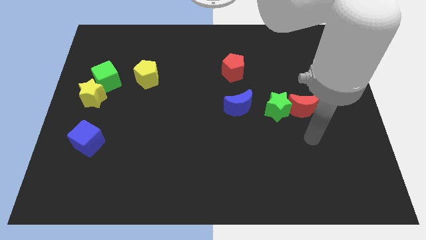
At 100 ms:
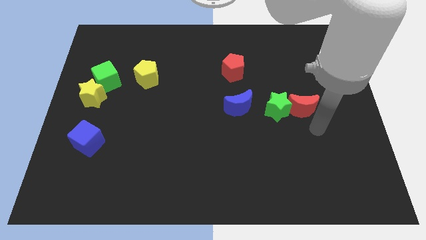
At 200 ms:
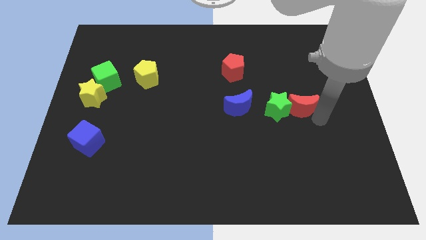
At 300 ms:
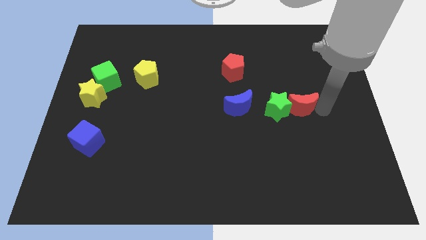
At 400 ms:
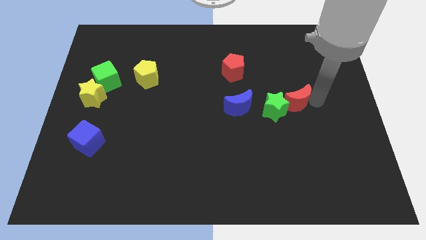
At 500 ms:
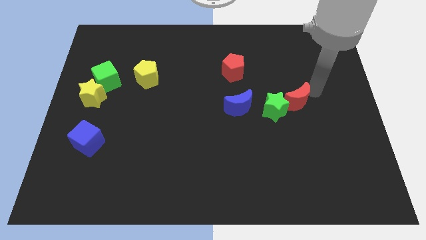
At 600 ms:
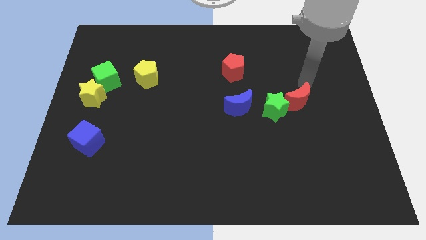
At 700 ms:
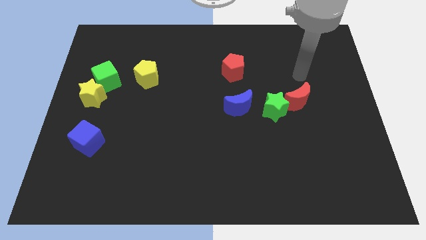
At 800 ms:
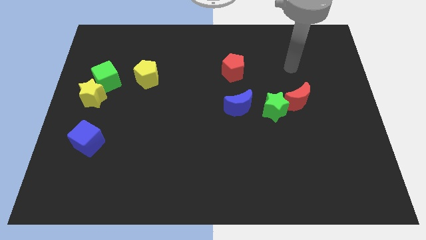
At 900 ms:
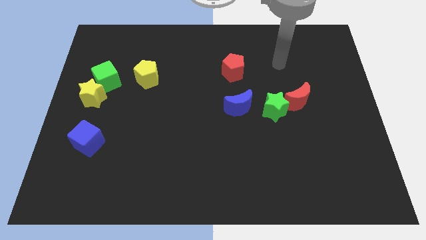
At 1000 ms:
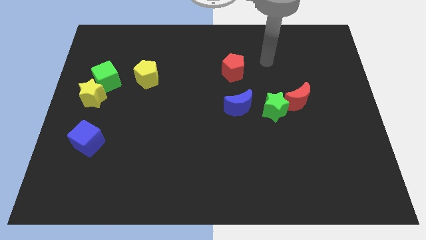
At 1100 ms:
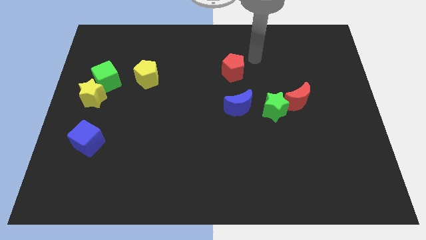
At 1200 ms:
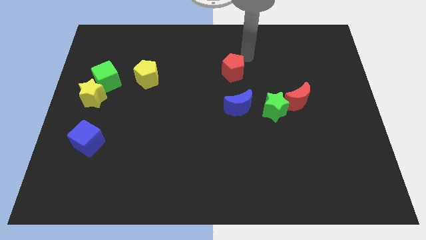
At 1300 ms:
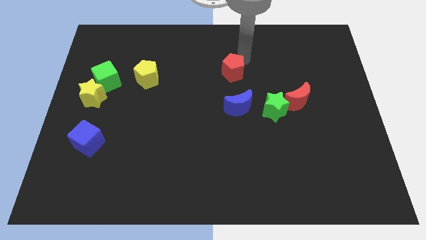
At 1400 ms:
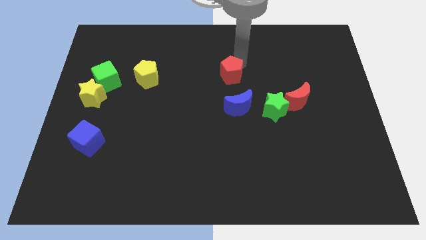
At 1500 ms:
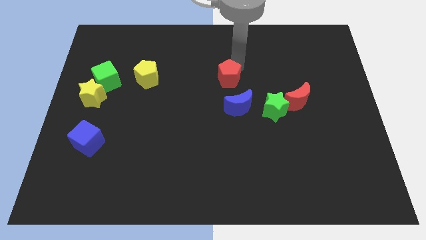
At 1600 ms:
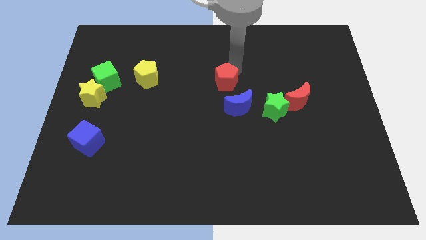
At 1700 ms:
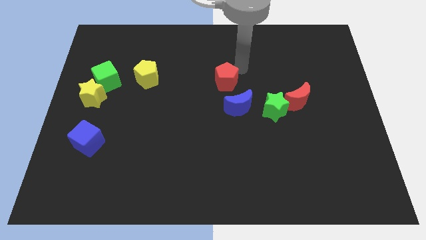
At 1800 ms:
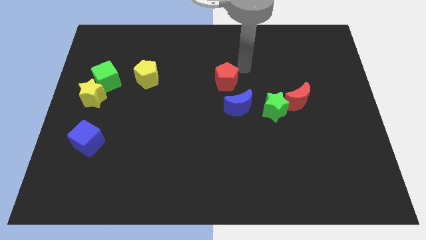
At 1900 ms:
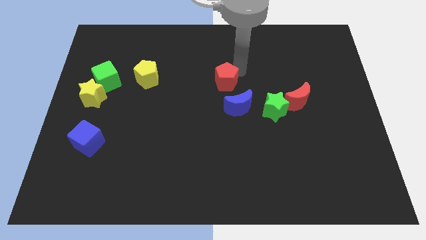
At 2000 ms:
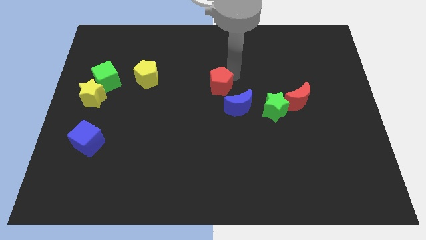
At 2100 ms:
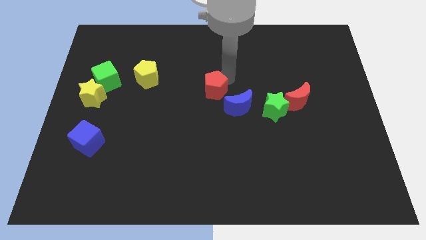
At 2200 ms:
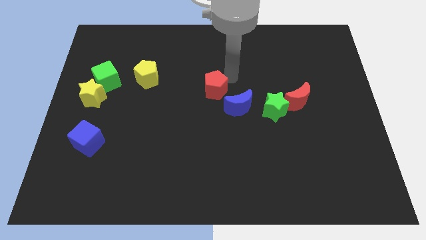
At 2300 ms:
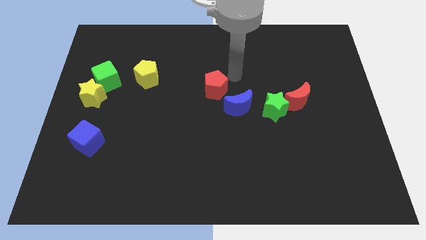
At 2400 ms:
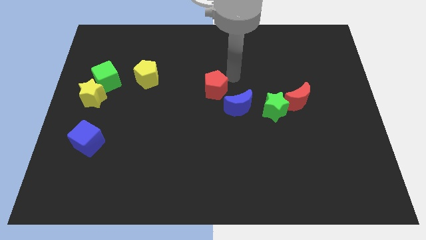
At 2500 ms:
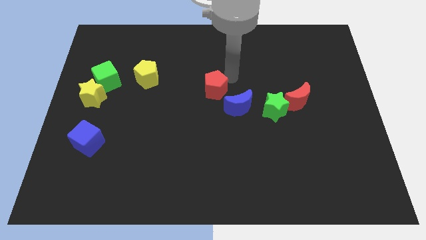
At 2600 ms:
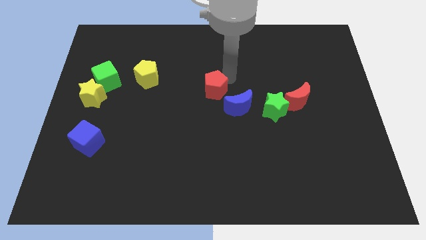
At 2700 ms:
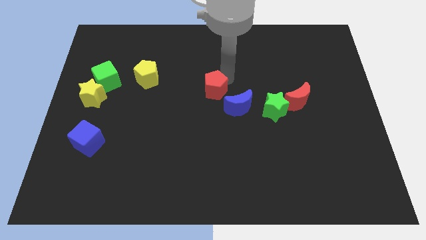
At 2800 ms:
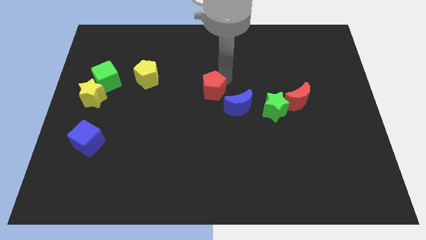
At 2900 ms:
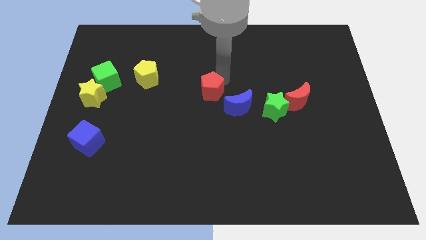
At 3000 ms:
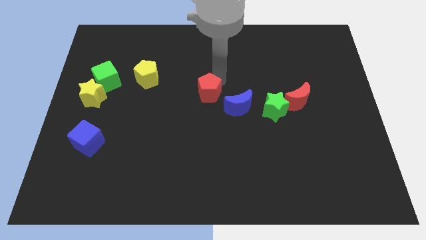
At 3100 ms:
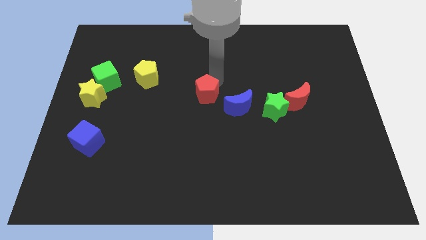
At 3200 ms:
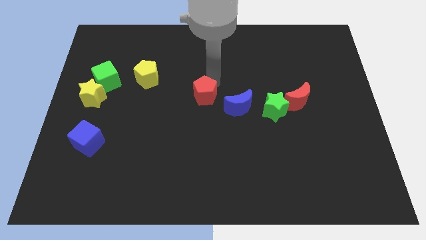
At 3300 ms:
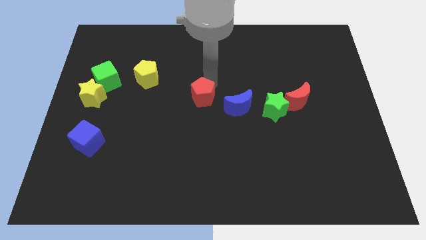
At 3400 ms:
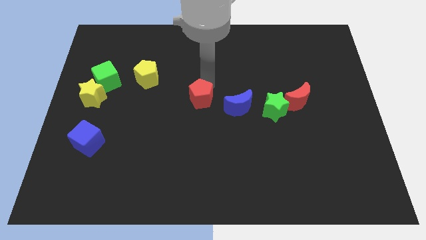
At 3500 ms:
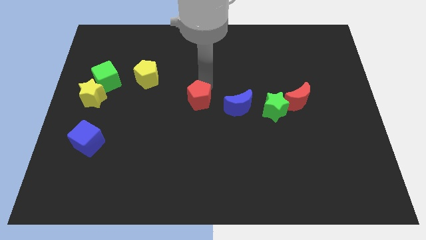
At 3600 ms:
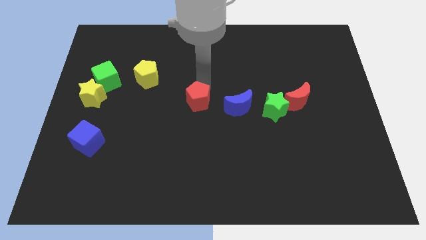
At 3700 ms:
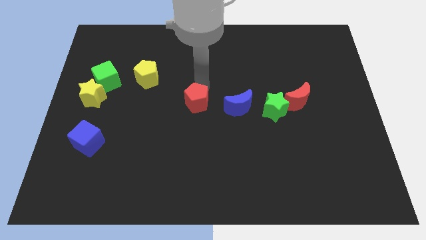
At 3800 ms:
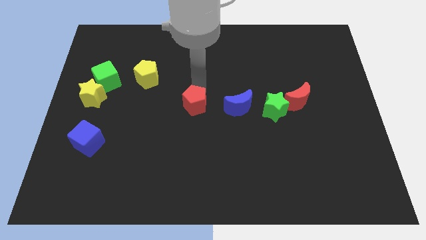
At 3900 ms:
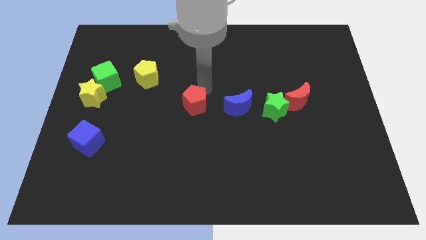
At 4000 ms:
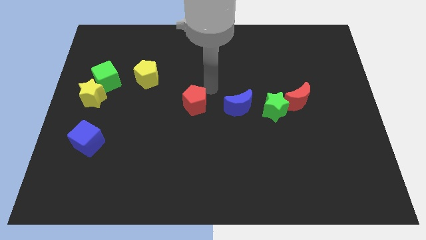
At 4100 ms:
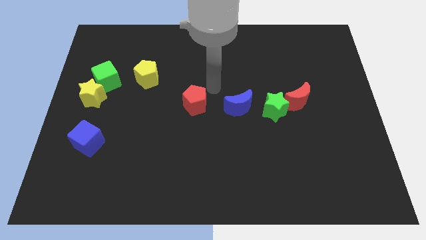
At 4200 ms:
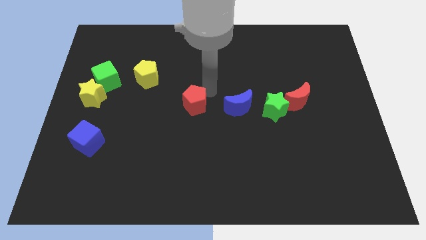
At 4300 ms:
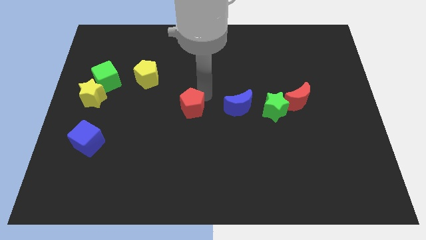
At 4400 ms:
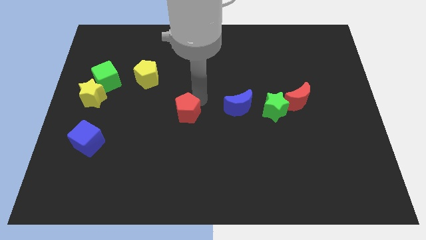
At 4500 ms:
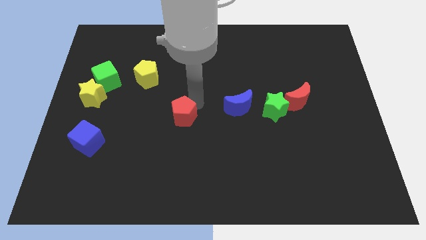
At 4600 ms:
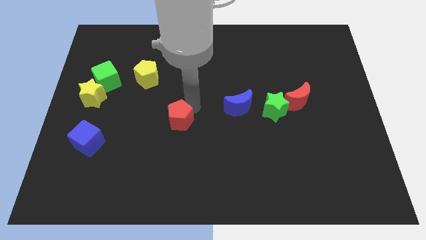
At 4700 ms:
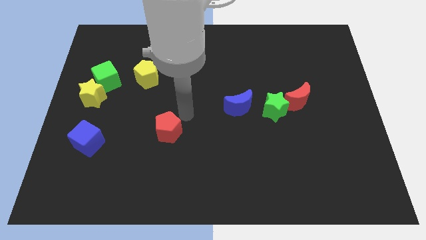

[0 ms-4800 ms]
push the red pentagon downwards and to the left

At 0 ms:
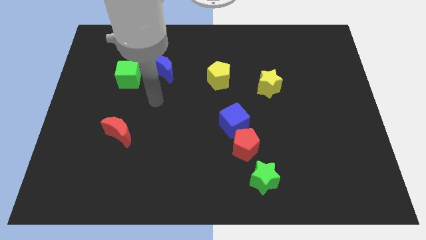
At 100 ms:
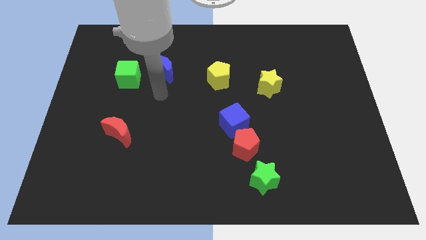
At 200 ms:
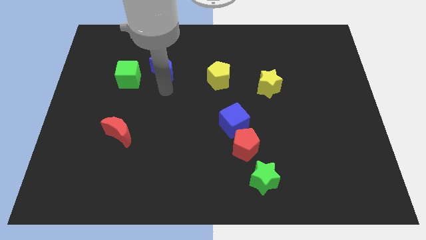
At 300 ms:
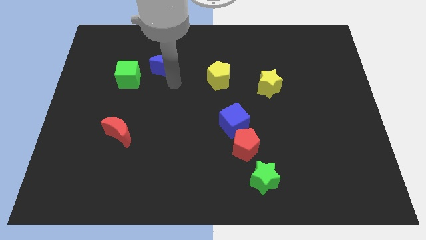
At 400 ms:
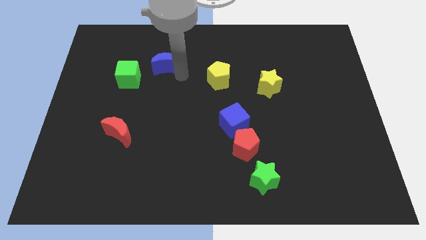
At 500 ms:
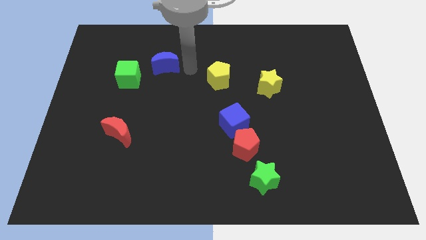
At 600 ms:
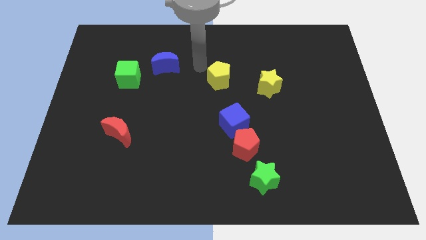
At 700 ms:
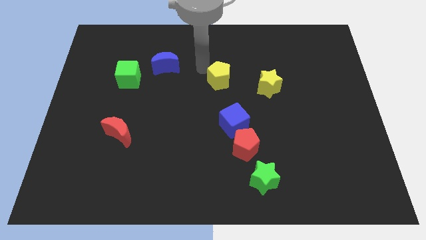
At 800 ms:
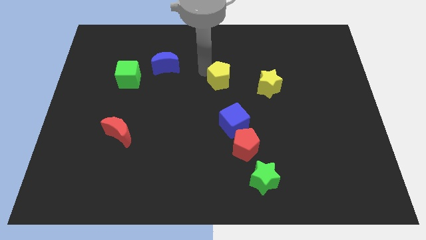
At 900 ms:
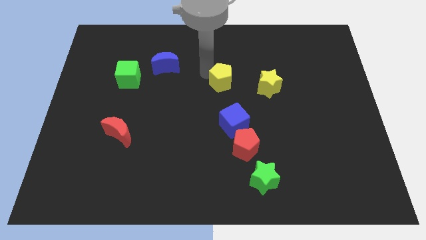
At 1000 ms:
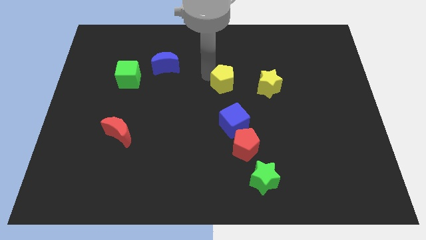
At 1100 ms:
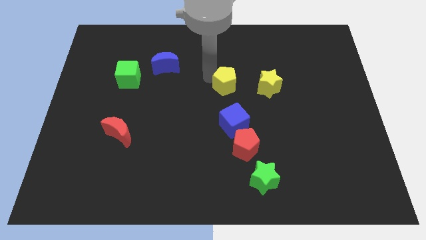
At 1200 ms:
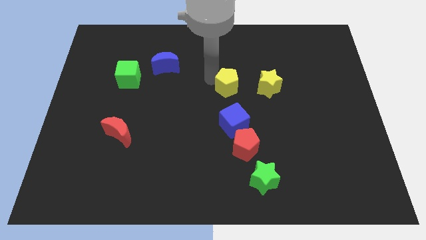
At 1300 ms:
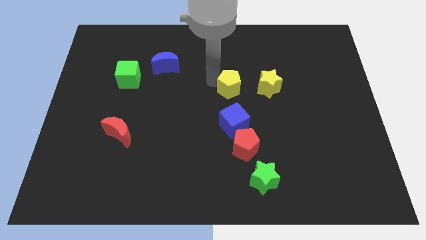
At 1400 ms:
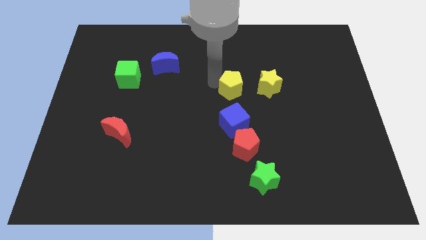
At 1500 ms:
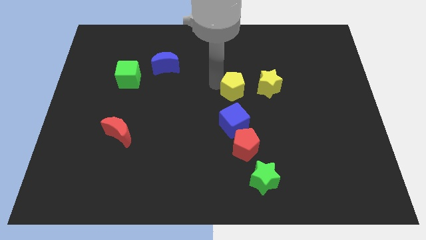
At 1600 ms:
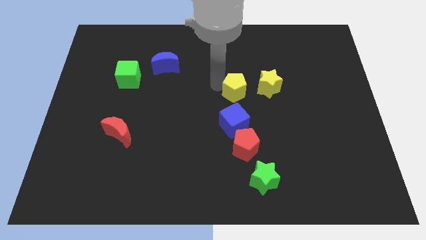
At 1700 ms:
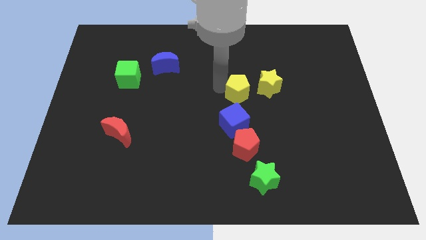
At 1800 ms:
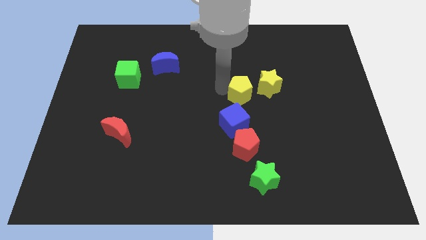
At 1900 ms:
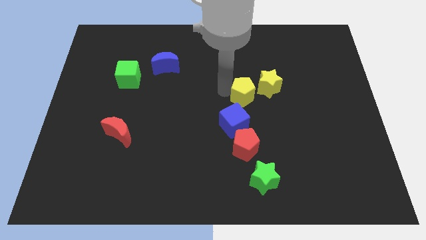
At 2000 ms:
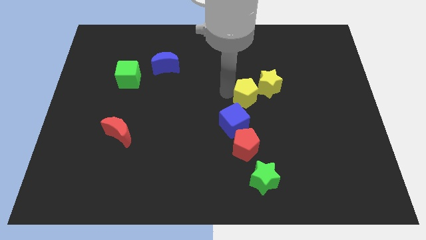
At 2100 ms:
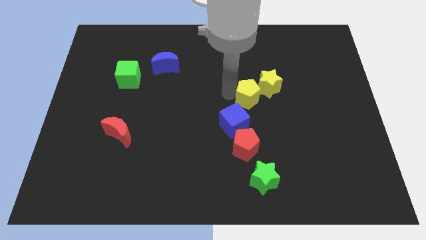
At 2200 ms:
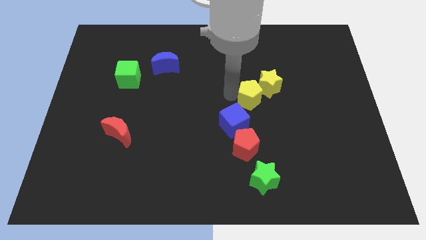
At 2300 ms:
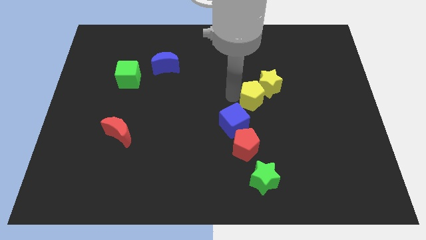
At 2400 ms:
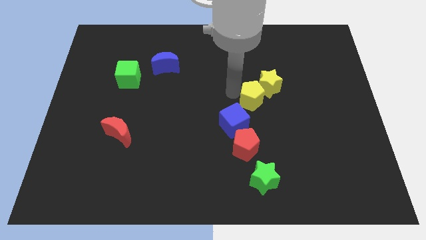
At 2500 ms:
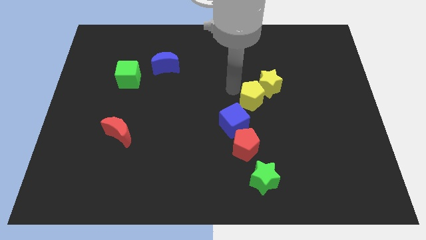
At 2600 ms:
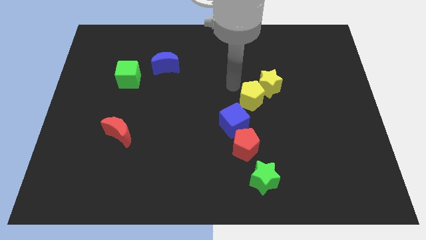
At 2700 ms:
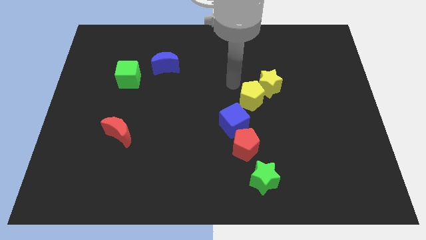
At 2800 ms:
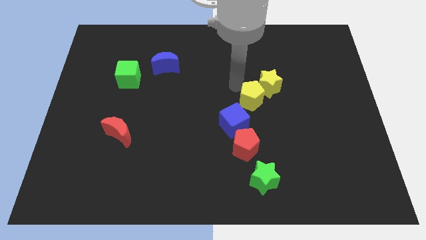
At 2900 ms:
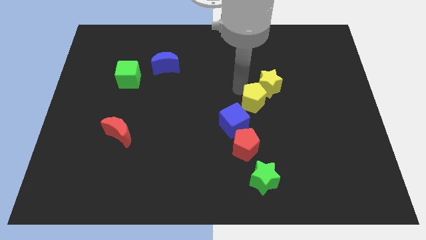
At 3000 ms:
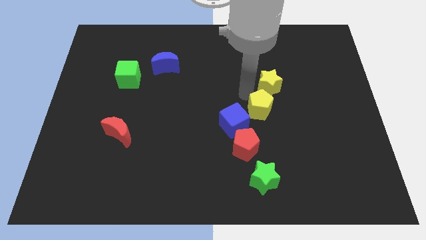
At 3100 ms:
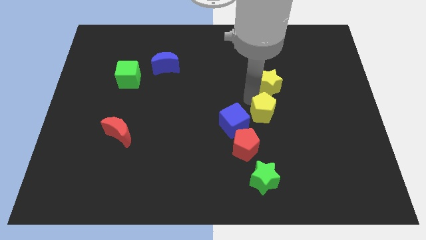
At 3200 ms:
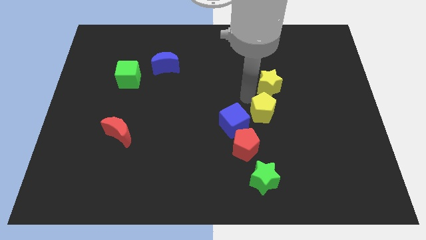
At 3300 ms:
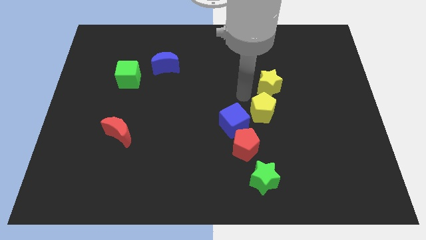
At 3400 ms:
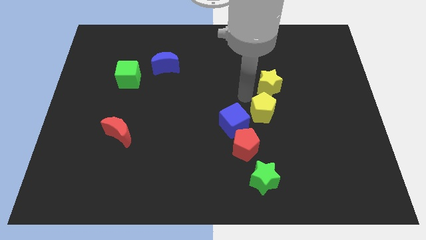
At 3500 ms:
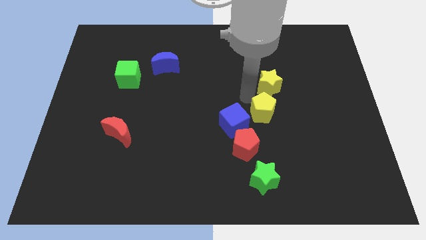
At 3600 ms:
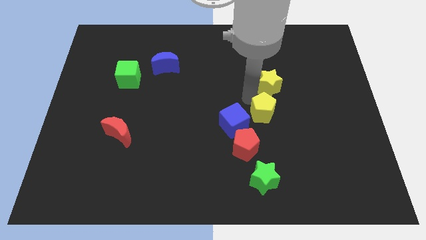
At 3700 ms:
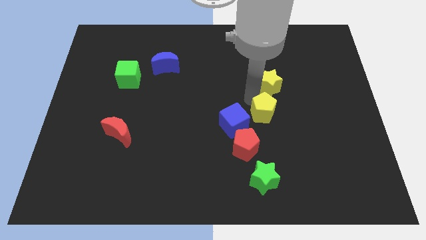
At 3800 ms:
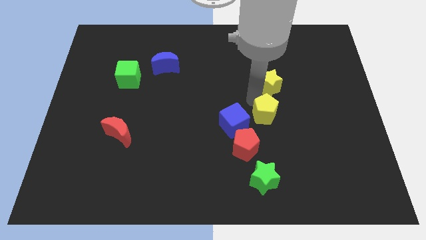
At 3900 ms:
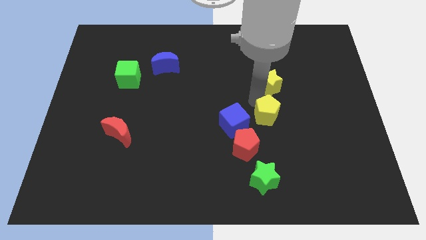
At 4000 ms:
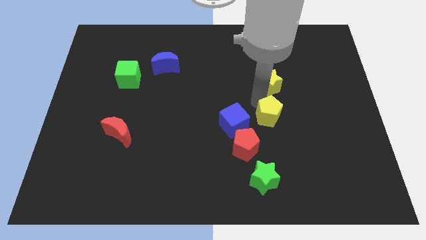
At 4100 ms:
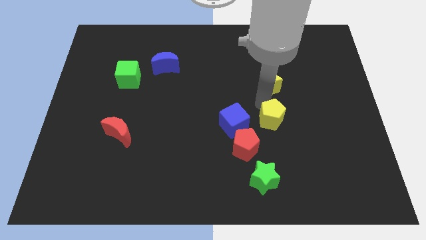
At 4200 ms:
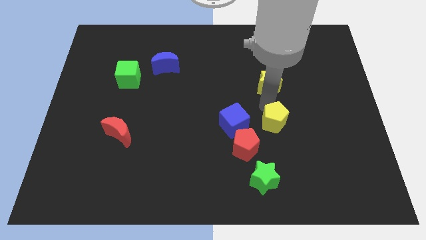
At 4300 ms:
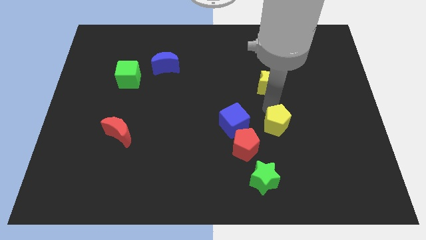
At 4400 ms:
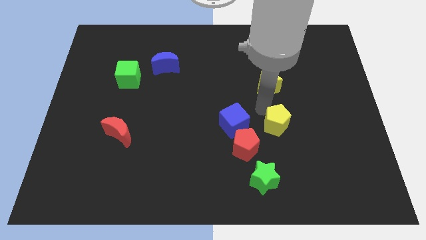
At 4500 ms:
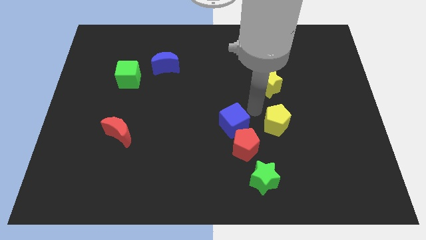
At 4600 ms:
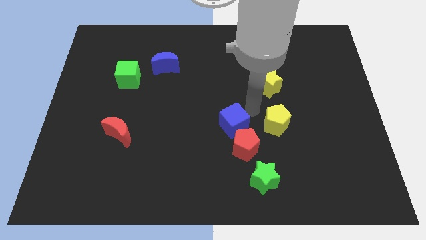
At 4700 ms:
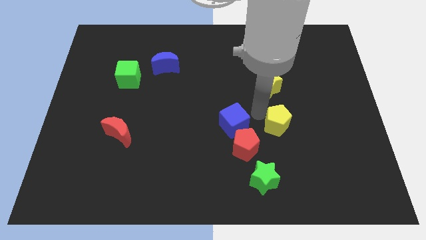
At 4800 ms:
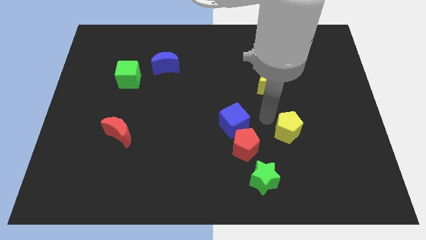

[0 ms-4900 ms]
move the yellow pentagon diagonally downwards and right
